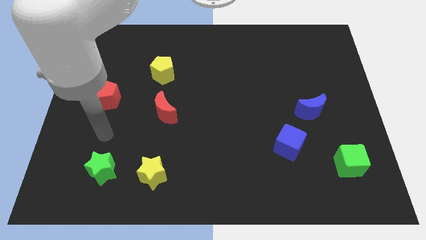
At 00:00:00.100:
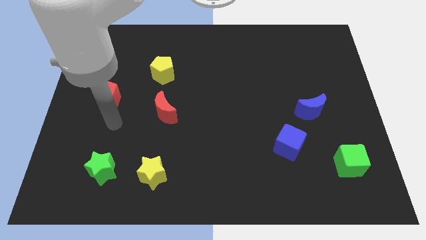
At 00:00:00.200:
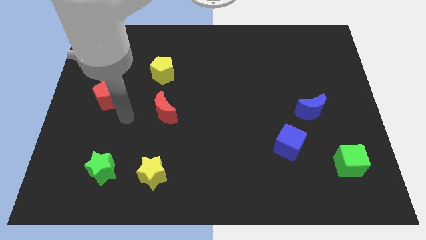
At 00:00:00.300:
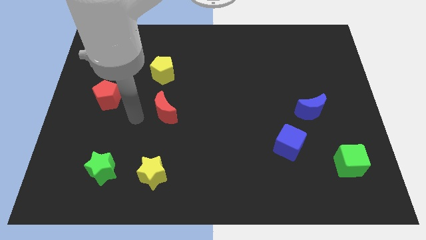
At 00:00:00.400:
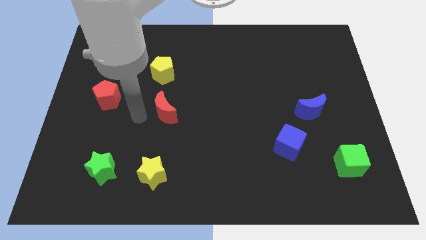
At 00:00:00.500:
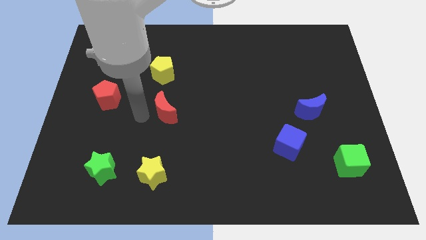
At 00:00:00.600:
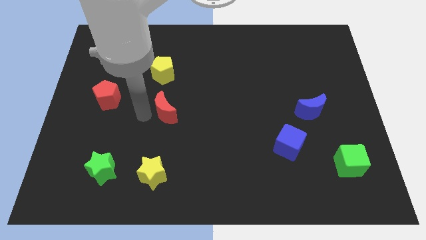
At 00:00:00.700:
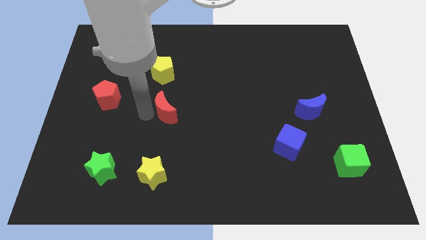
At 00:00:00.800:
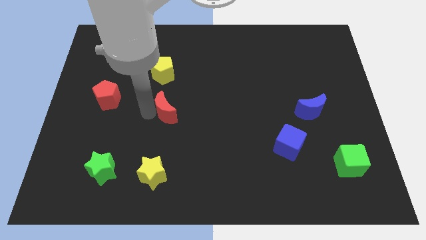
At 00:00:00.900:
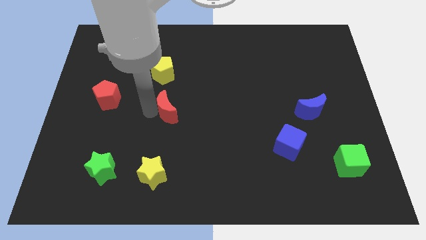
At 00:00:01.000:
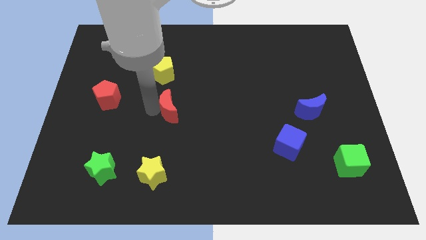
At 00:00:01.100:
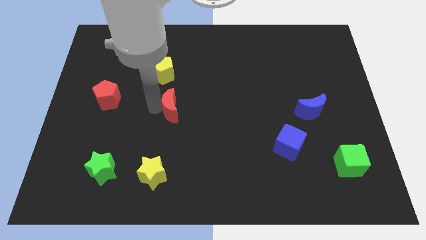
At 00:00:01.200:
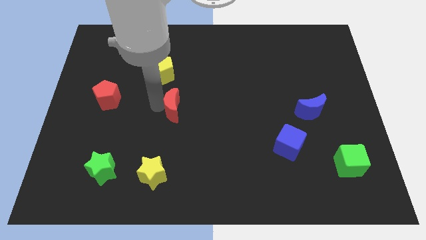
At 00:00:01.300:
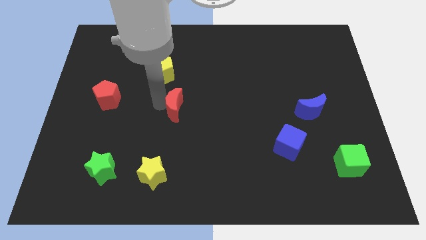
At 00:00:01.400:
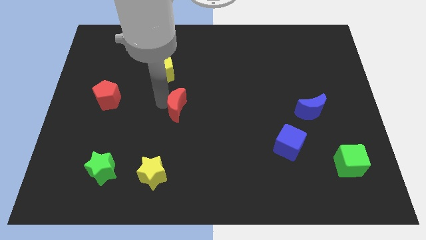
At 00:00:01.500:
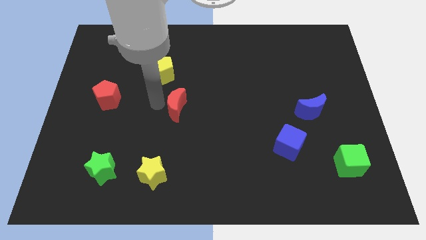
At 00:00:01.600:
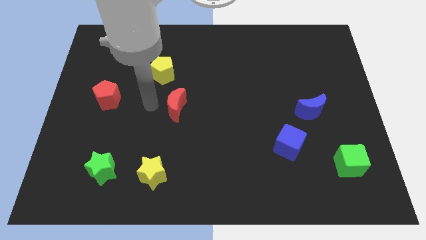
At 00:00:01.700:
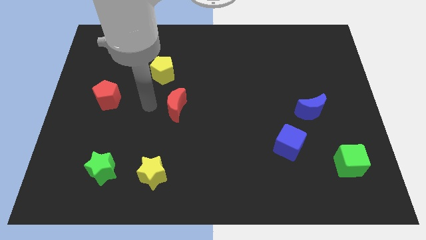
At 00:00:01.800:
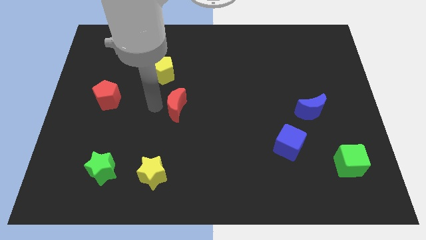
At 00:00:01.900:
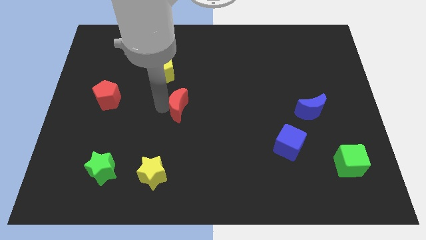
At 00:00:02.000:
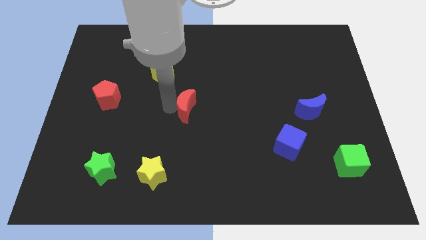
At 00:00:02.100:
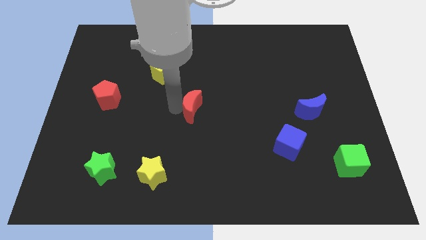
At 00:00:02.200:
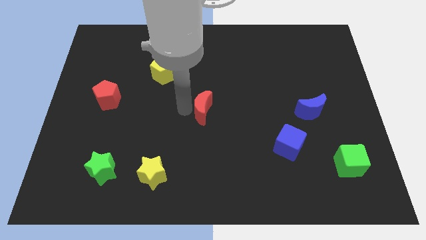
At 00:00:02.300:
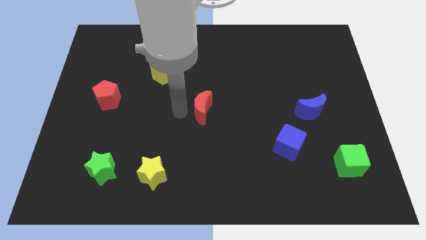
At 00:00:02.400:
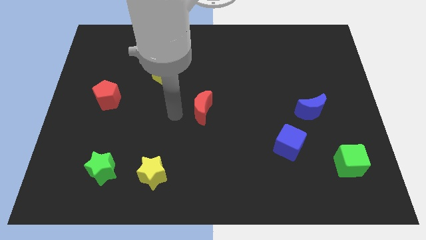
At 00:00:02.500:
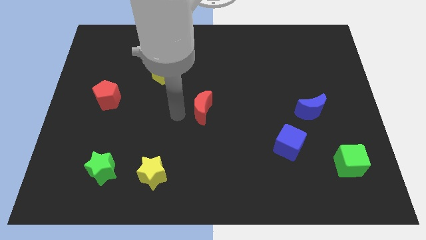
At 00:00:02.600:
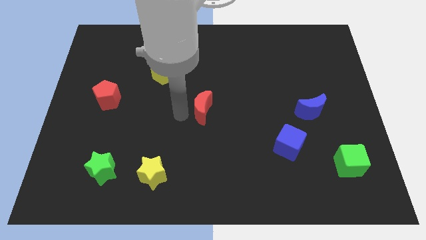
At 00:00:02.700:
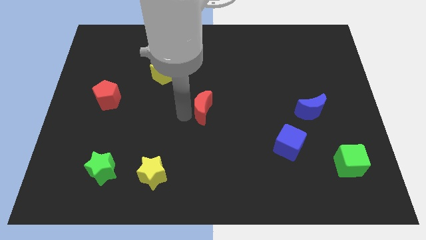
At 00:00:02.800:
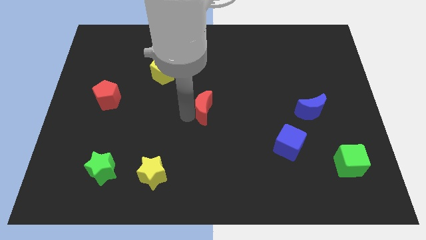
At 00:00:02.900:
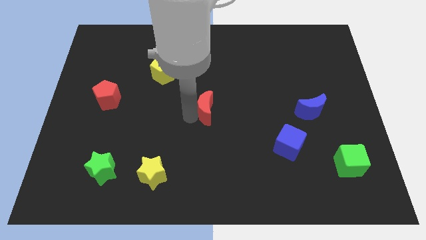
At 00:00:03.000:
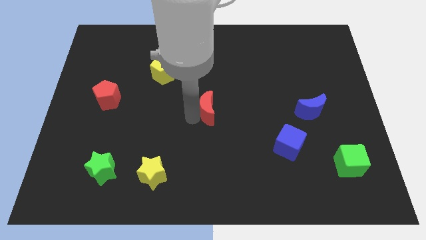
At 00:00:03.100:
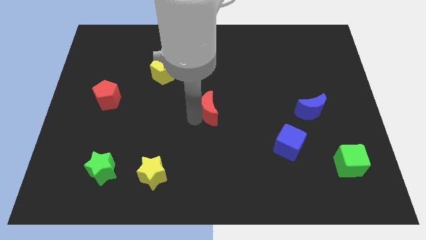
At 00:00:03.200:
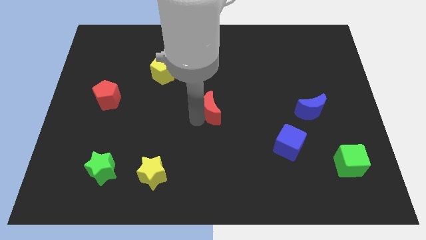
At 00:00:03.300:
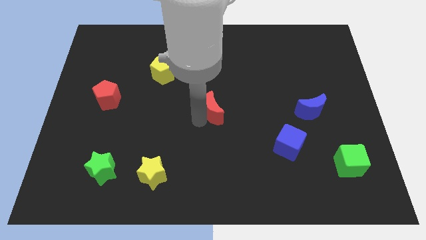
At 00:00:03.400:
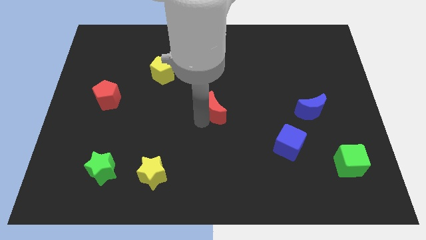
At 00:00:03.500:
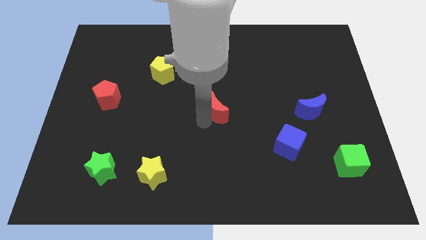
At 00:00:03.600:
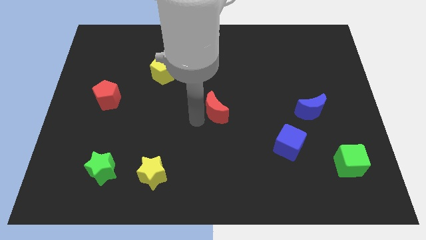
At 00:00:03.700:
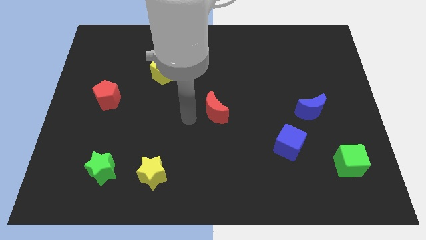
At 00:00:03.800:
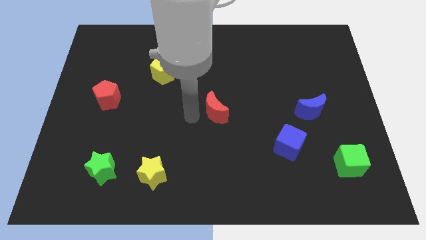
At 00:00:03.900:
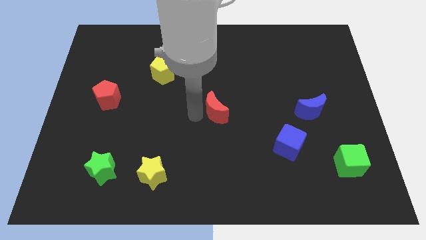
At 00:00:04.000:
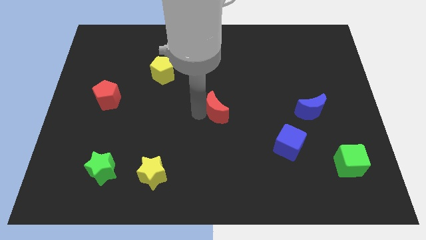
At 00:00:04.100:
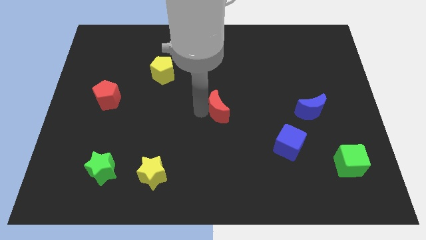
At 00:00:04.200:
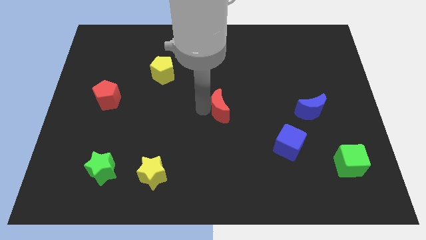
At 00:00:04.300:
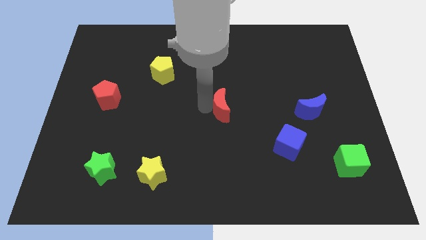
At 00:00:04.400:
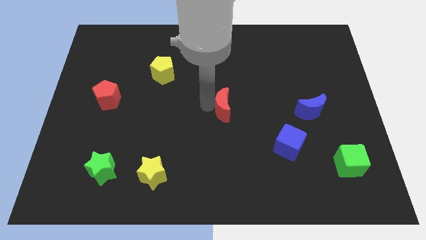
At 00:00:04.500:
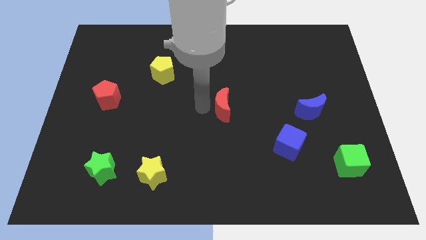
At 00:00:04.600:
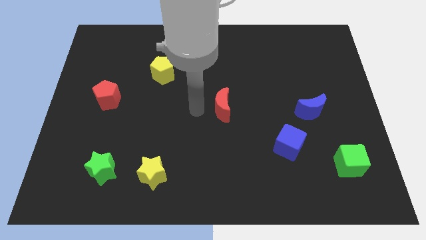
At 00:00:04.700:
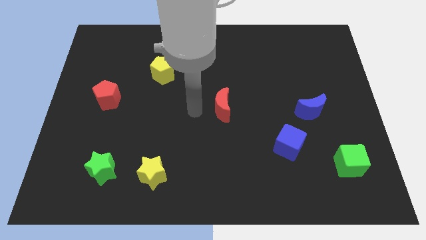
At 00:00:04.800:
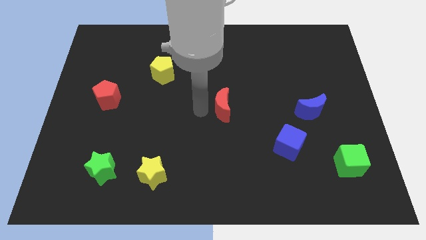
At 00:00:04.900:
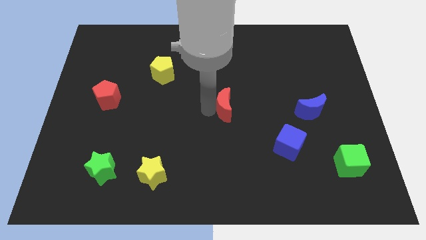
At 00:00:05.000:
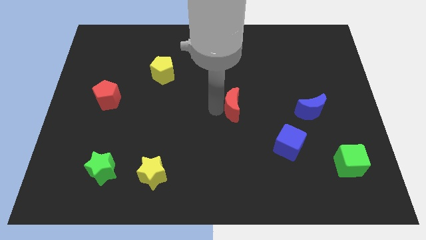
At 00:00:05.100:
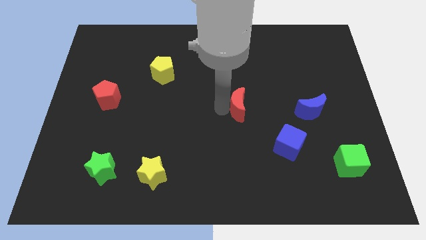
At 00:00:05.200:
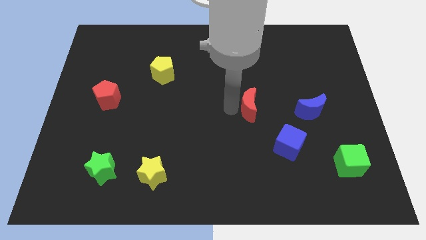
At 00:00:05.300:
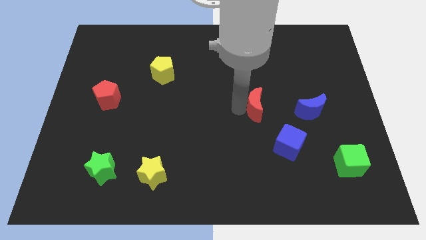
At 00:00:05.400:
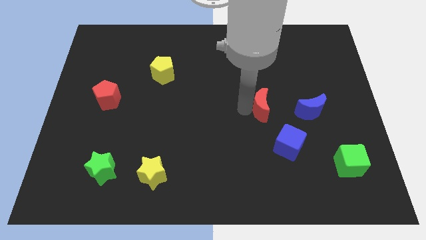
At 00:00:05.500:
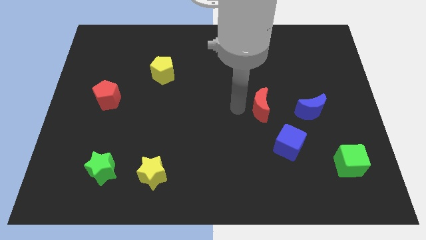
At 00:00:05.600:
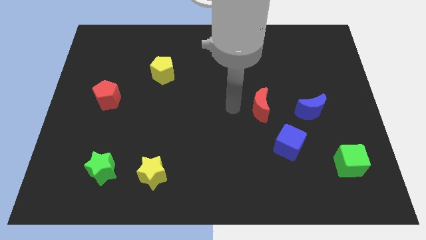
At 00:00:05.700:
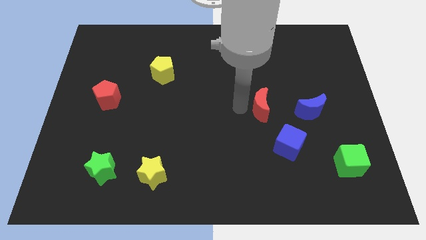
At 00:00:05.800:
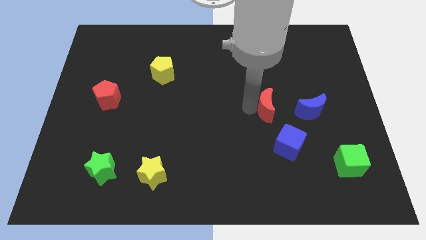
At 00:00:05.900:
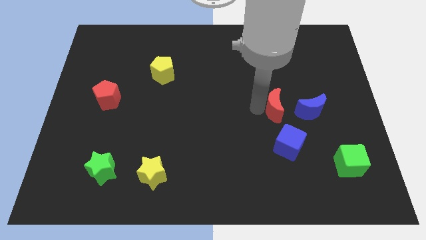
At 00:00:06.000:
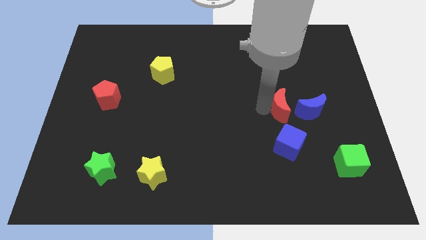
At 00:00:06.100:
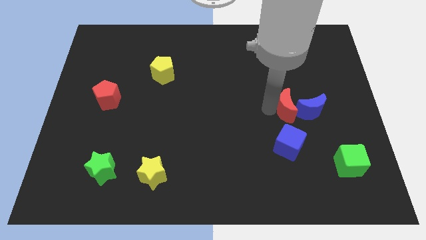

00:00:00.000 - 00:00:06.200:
push the red moon close to the blue moon
